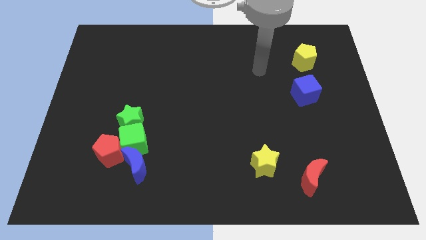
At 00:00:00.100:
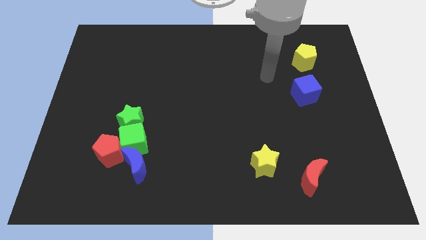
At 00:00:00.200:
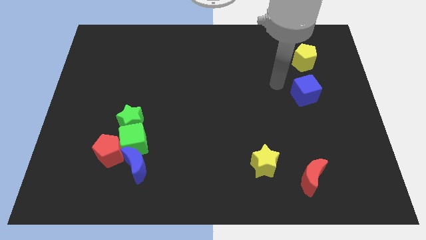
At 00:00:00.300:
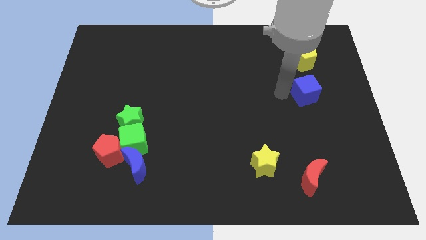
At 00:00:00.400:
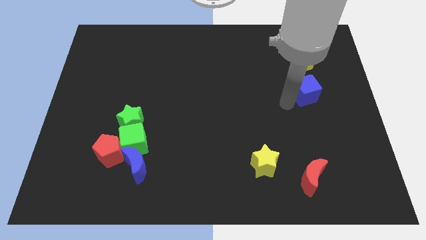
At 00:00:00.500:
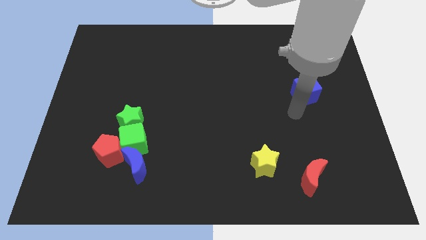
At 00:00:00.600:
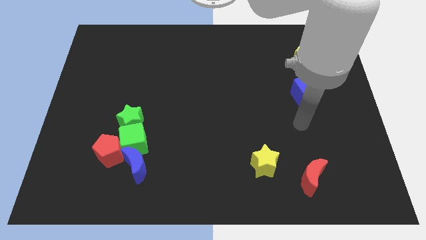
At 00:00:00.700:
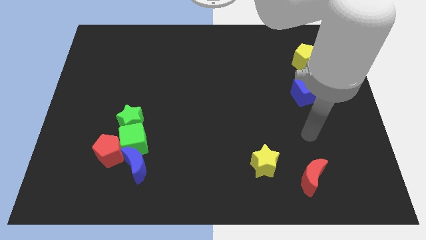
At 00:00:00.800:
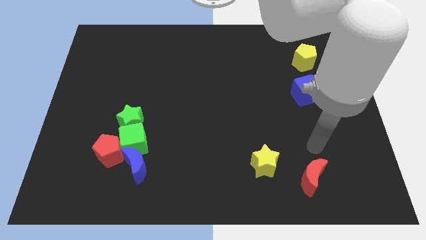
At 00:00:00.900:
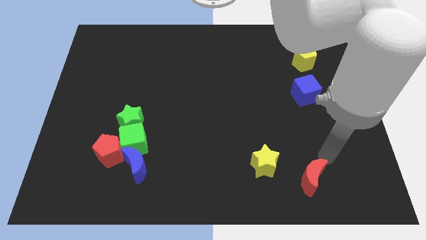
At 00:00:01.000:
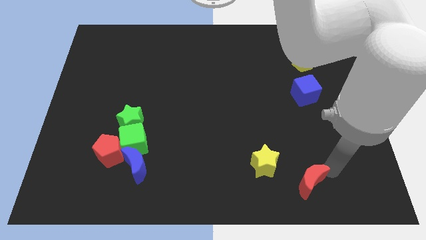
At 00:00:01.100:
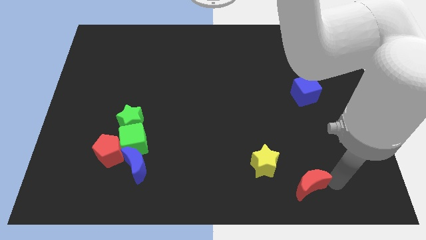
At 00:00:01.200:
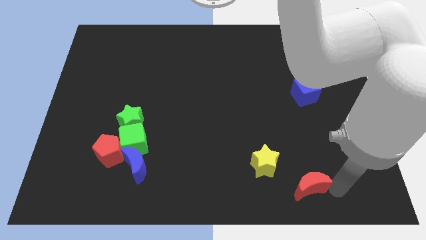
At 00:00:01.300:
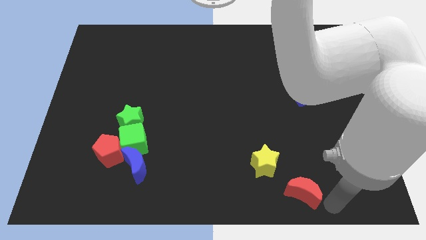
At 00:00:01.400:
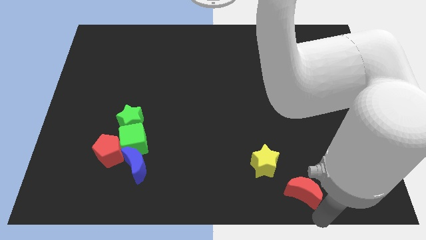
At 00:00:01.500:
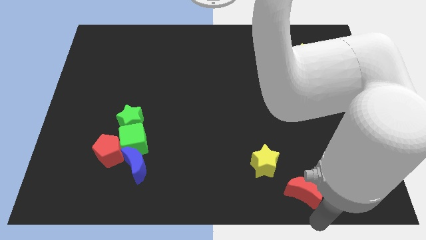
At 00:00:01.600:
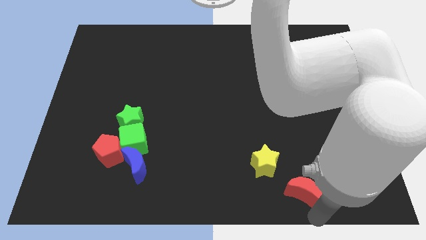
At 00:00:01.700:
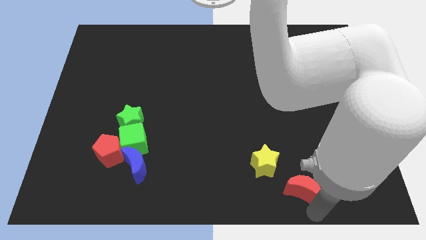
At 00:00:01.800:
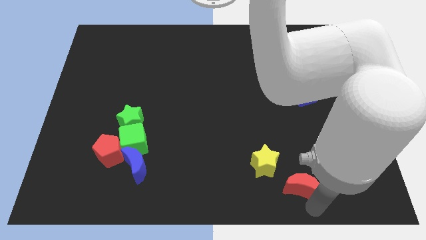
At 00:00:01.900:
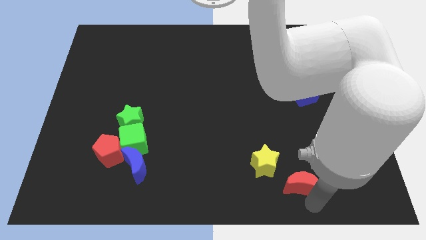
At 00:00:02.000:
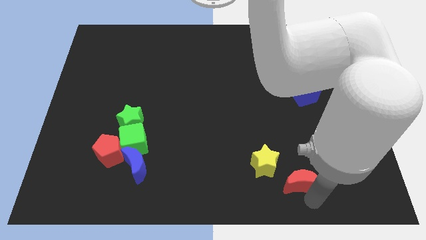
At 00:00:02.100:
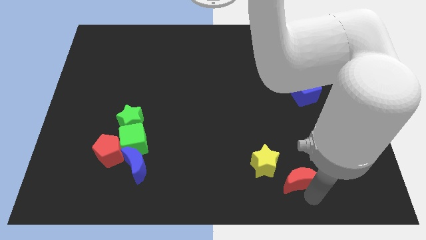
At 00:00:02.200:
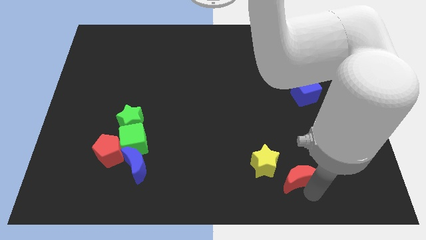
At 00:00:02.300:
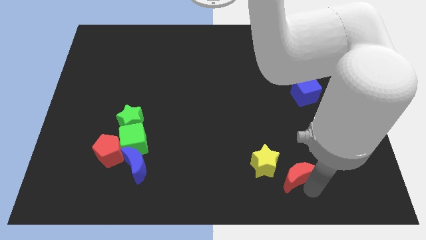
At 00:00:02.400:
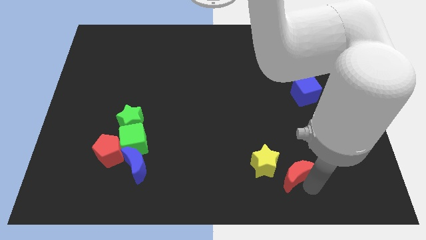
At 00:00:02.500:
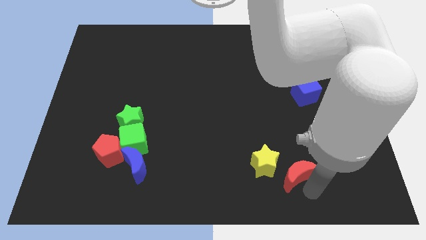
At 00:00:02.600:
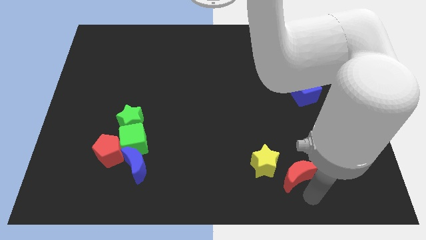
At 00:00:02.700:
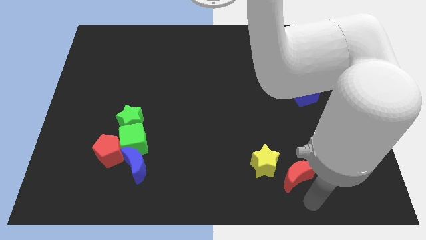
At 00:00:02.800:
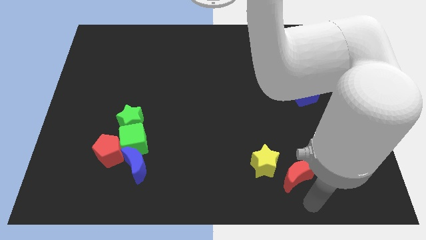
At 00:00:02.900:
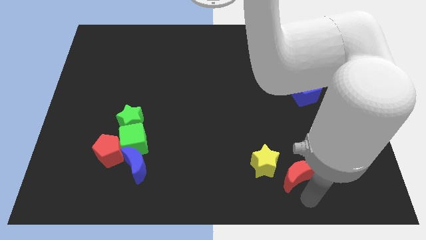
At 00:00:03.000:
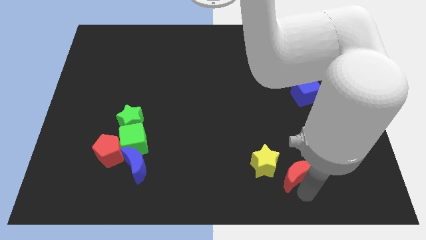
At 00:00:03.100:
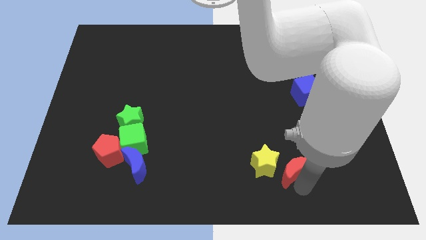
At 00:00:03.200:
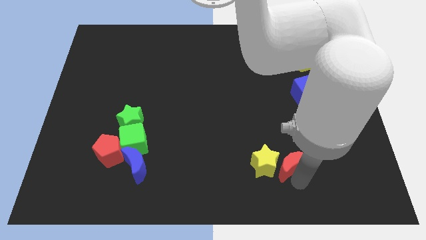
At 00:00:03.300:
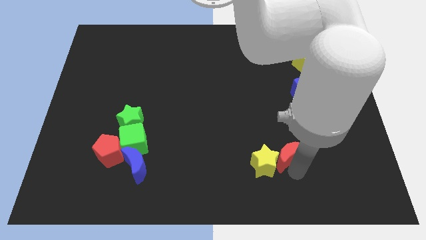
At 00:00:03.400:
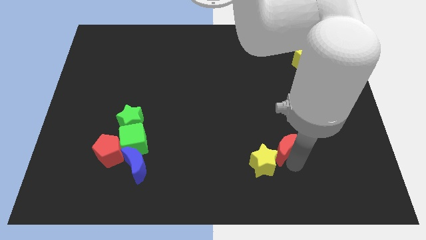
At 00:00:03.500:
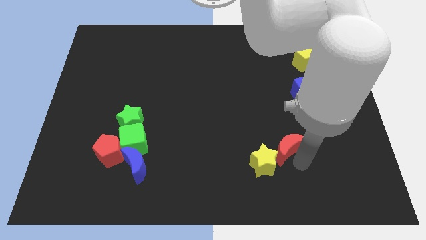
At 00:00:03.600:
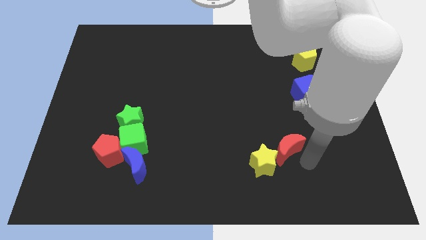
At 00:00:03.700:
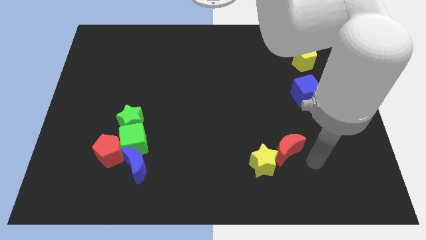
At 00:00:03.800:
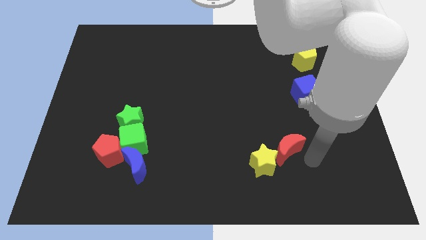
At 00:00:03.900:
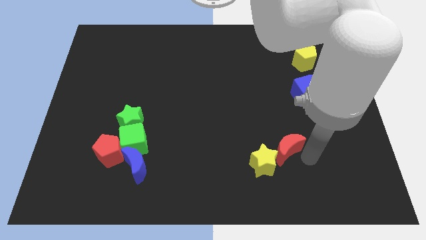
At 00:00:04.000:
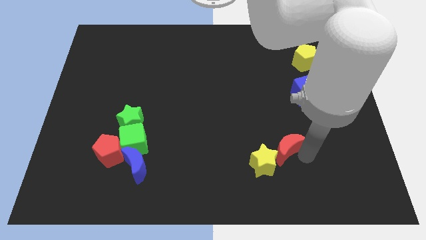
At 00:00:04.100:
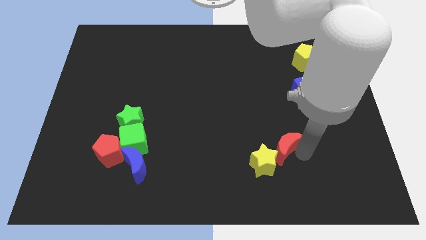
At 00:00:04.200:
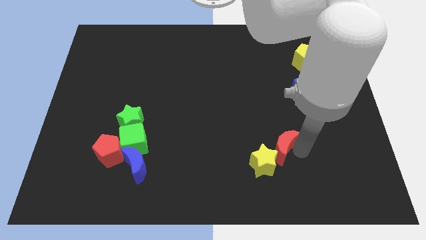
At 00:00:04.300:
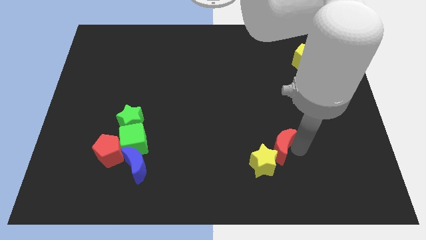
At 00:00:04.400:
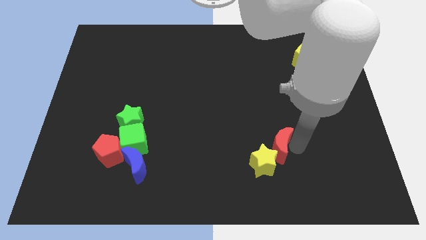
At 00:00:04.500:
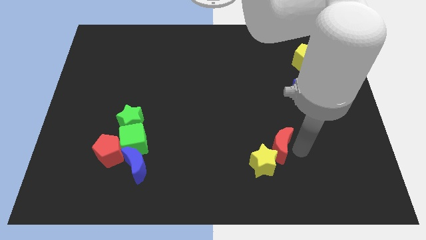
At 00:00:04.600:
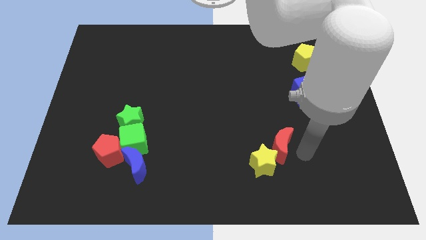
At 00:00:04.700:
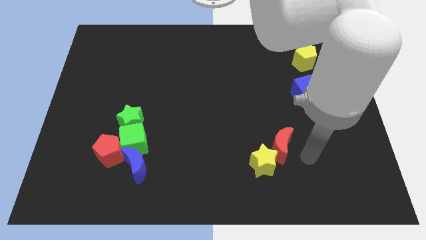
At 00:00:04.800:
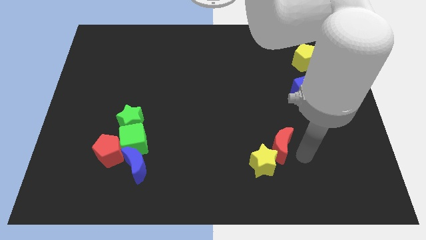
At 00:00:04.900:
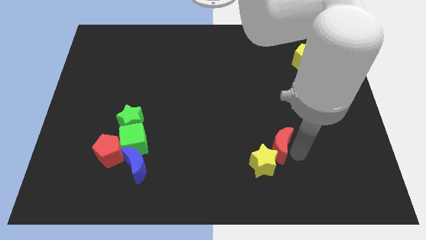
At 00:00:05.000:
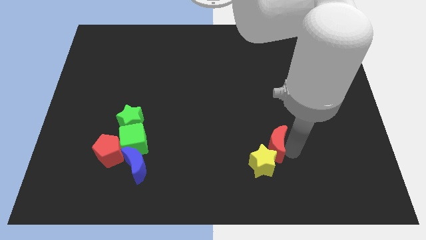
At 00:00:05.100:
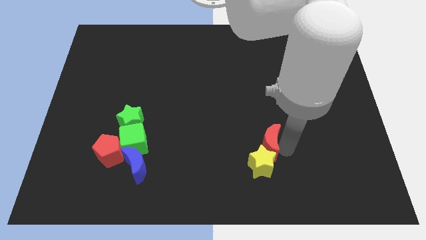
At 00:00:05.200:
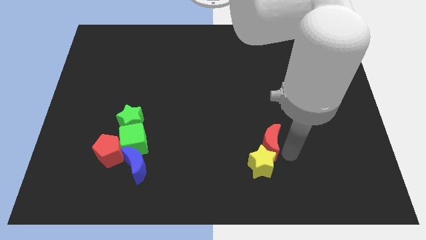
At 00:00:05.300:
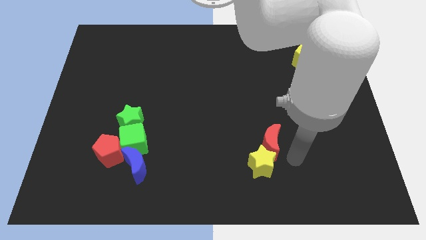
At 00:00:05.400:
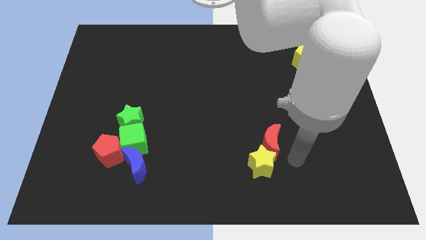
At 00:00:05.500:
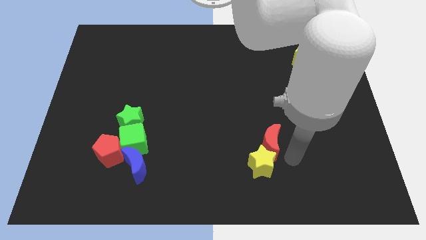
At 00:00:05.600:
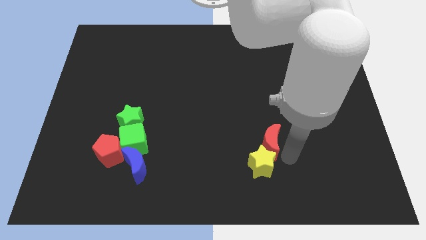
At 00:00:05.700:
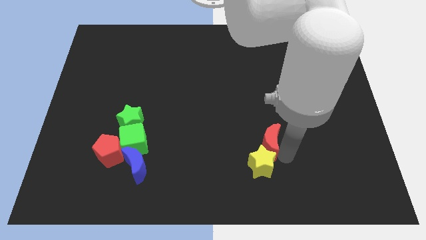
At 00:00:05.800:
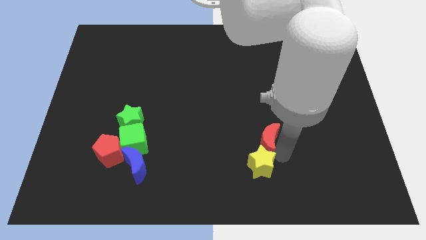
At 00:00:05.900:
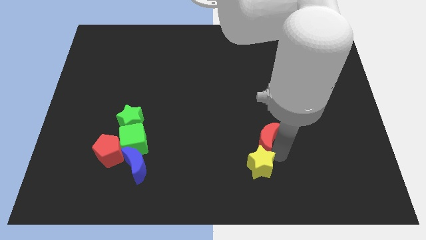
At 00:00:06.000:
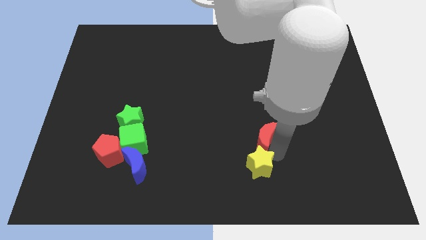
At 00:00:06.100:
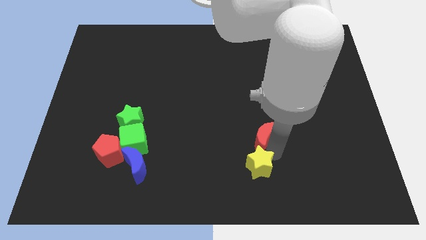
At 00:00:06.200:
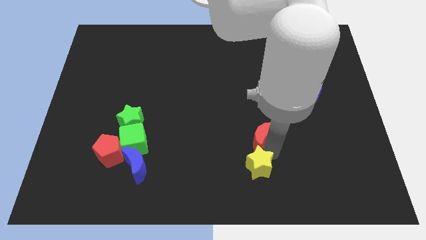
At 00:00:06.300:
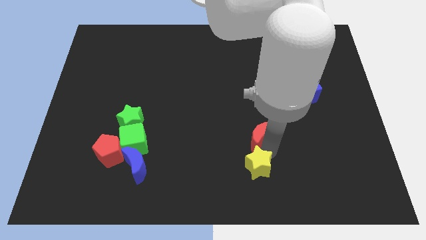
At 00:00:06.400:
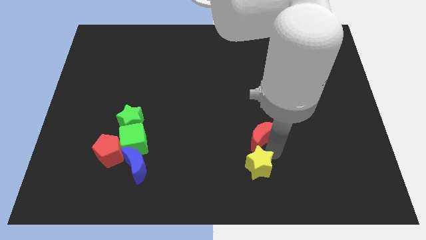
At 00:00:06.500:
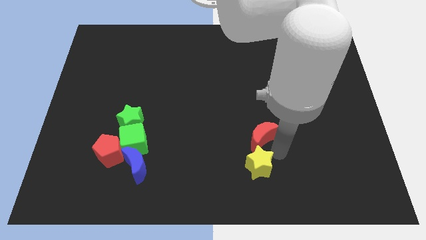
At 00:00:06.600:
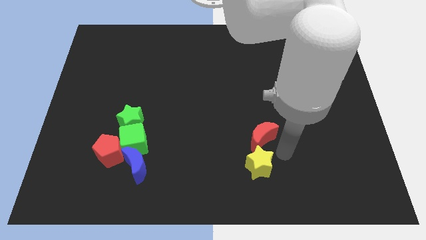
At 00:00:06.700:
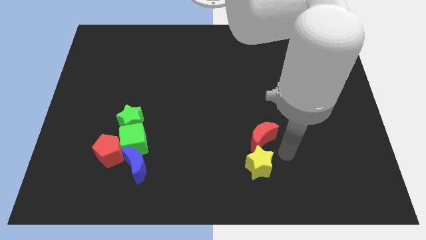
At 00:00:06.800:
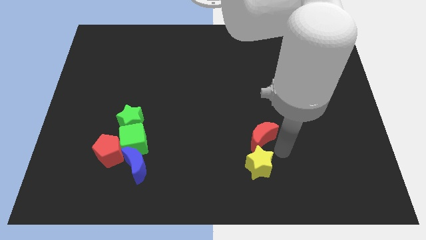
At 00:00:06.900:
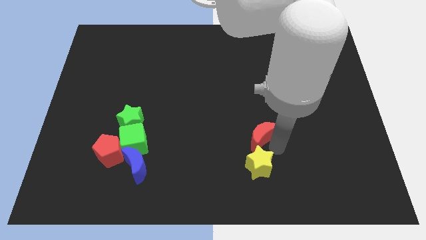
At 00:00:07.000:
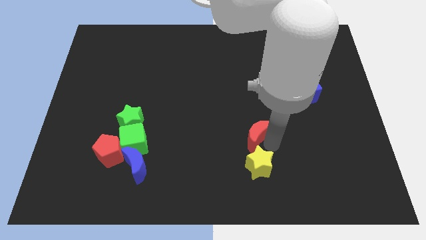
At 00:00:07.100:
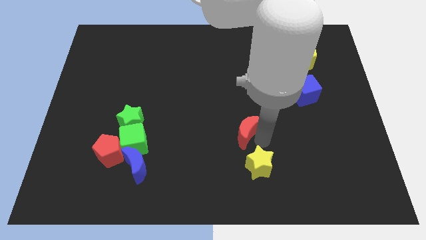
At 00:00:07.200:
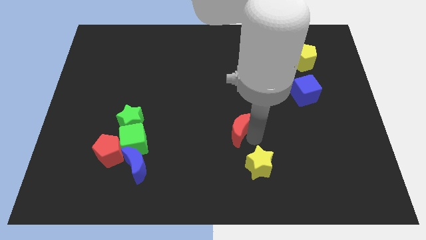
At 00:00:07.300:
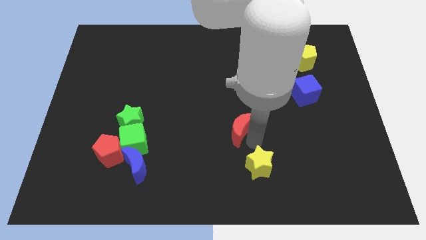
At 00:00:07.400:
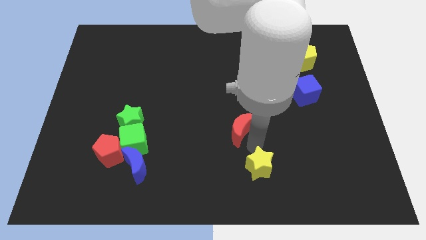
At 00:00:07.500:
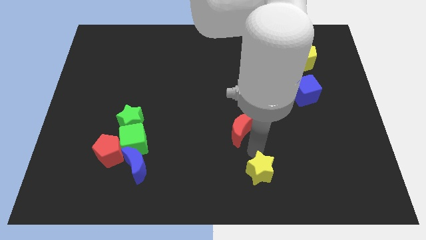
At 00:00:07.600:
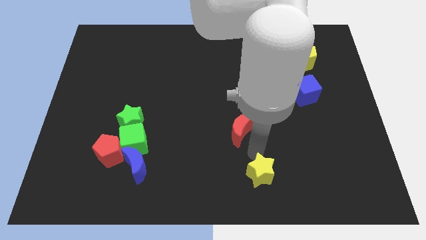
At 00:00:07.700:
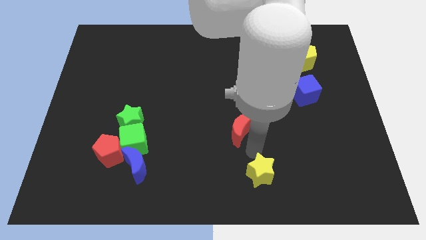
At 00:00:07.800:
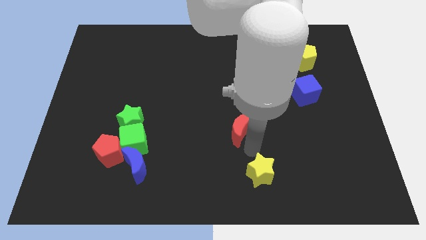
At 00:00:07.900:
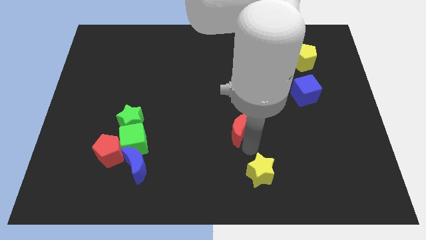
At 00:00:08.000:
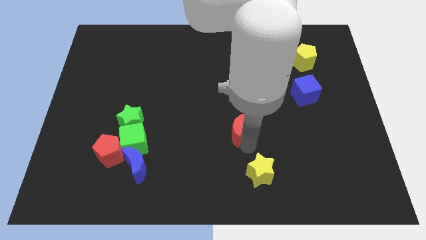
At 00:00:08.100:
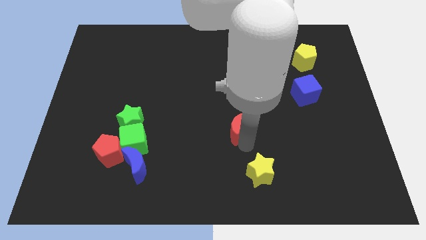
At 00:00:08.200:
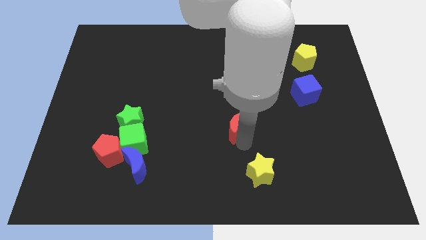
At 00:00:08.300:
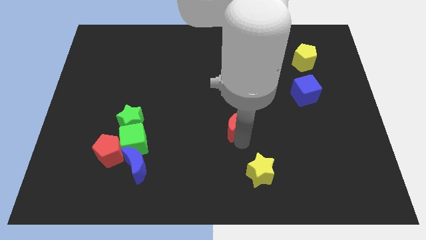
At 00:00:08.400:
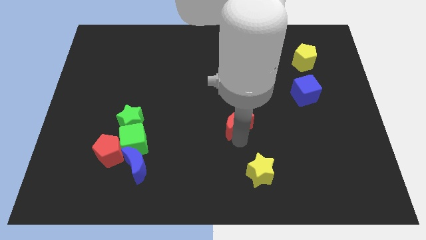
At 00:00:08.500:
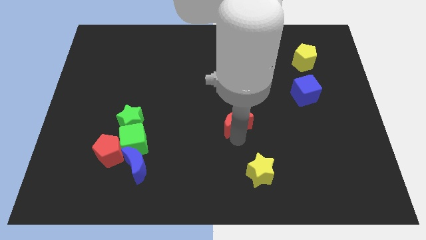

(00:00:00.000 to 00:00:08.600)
push the red moon upwards and then left
